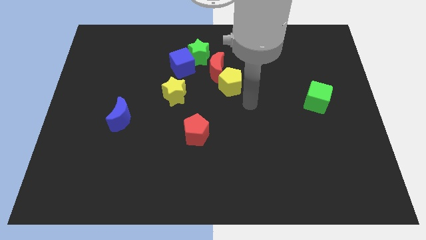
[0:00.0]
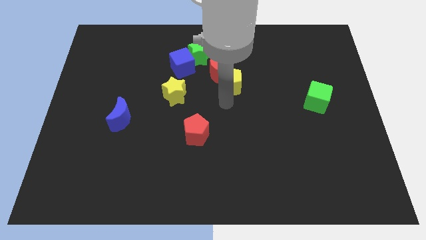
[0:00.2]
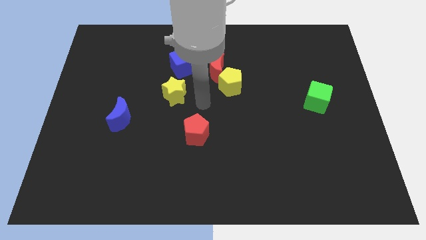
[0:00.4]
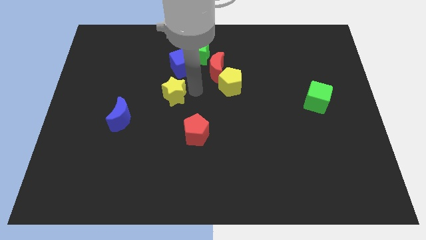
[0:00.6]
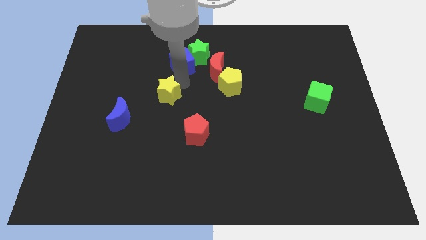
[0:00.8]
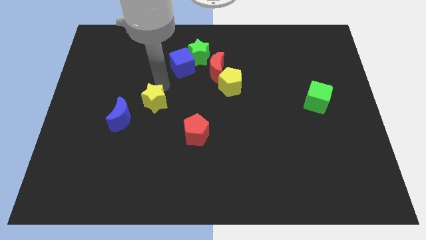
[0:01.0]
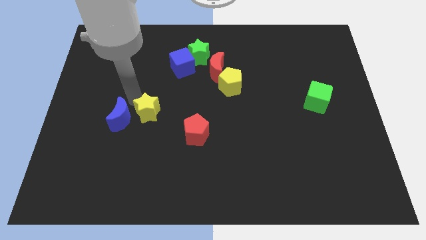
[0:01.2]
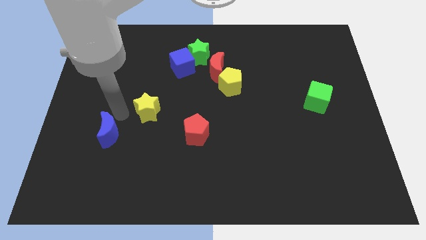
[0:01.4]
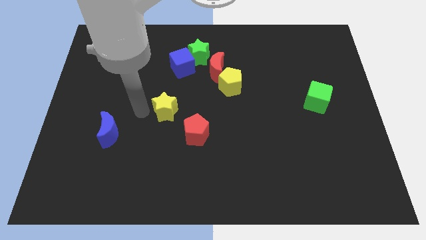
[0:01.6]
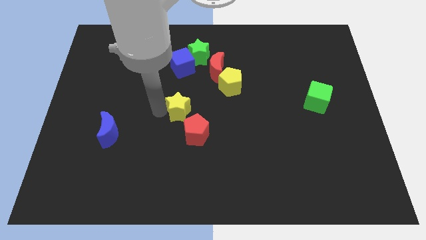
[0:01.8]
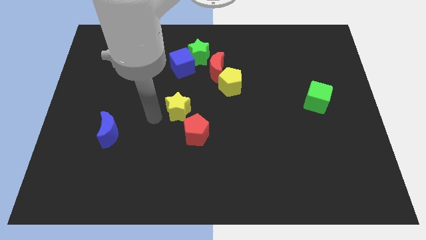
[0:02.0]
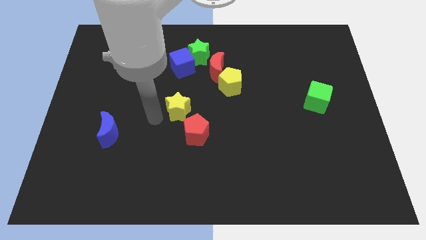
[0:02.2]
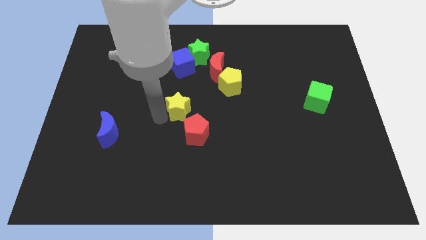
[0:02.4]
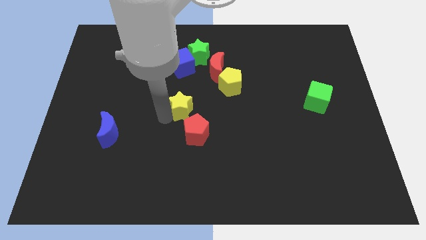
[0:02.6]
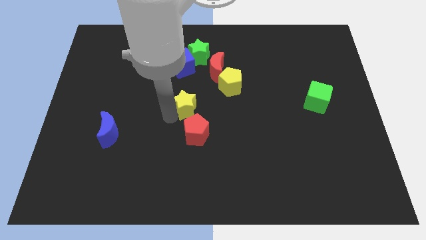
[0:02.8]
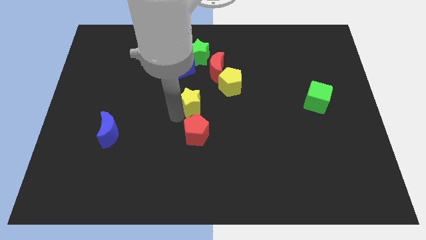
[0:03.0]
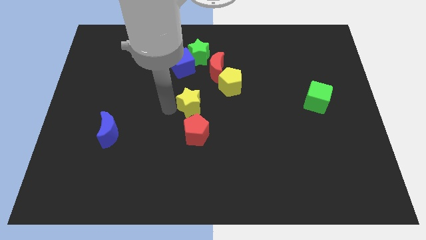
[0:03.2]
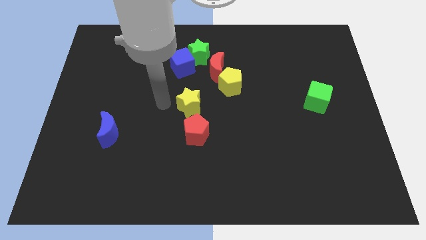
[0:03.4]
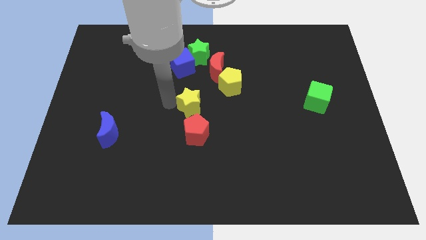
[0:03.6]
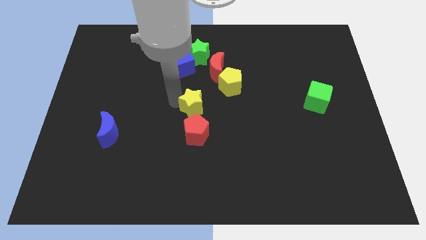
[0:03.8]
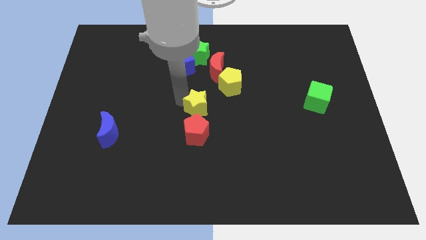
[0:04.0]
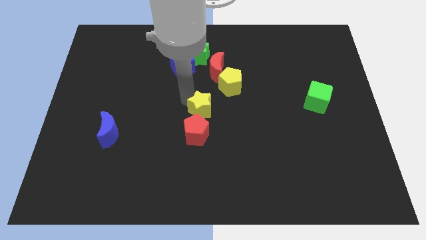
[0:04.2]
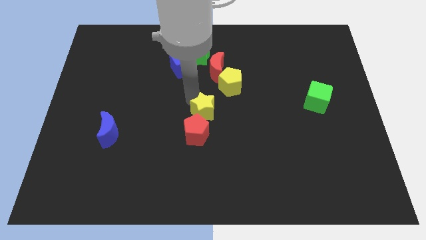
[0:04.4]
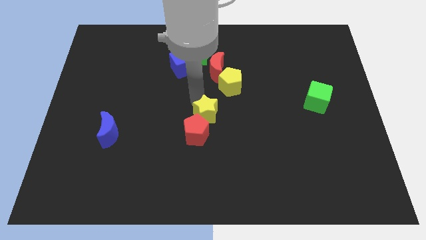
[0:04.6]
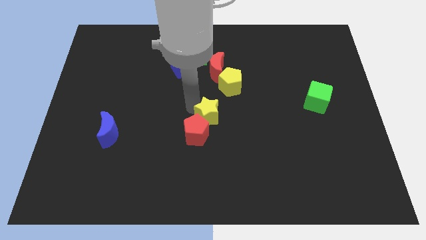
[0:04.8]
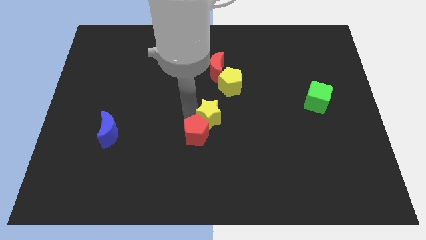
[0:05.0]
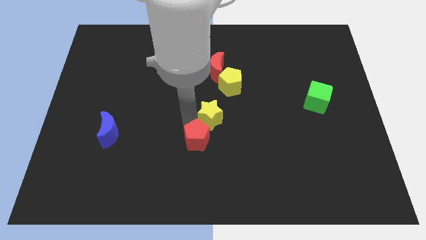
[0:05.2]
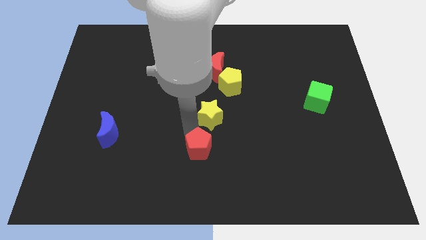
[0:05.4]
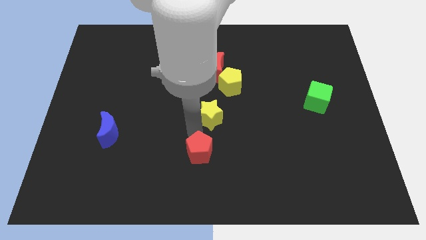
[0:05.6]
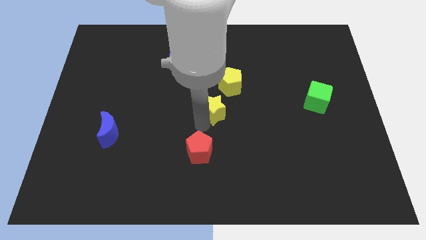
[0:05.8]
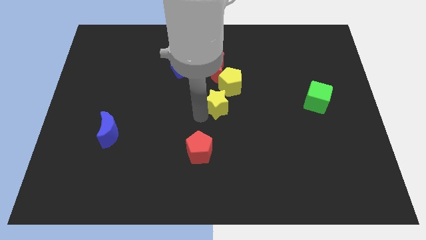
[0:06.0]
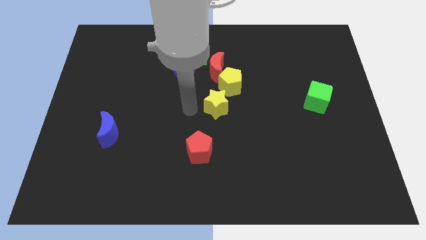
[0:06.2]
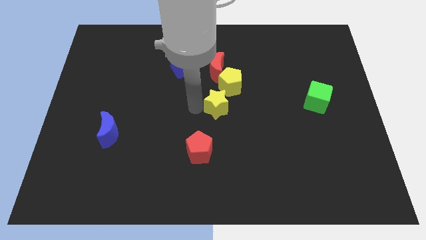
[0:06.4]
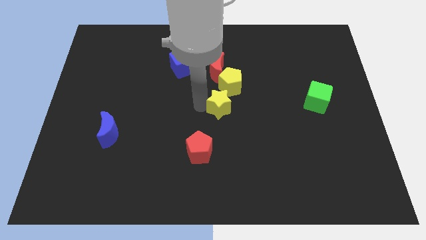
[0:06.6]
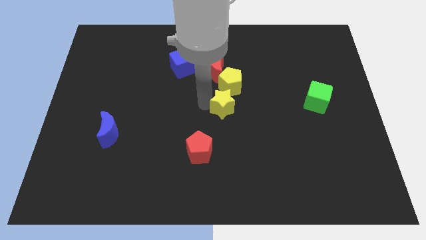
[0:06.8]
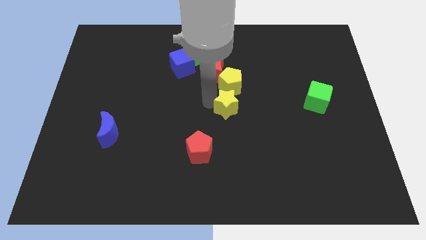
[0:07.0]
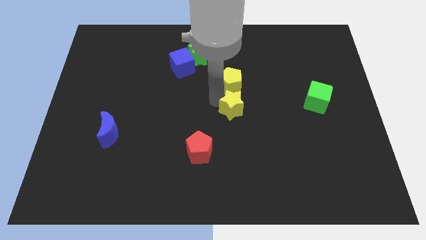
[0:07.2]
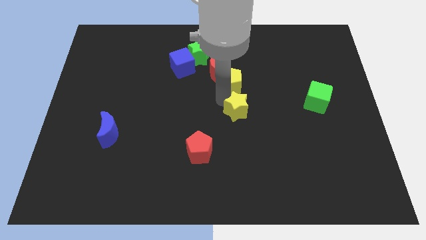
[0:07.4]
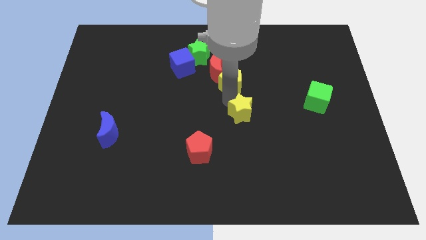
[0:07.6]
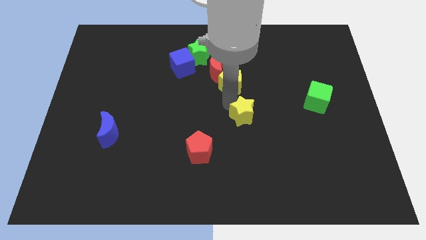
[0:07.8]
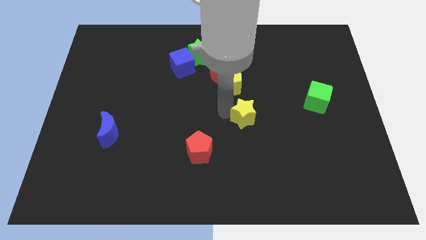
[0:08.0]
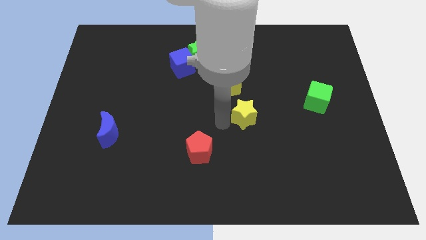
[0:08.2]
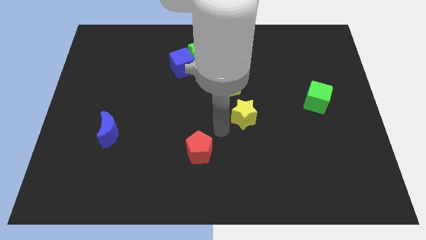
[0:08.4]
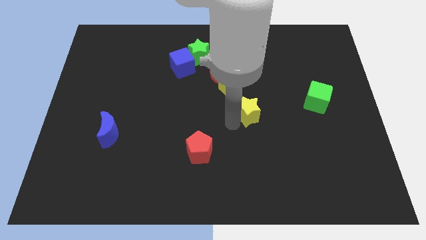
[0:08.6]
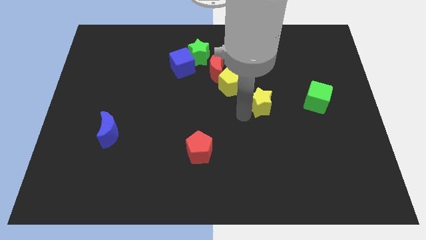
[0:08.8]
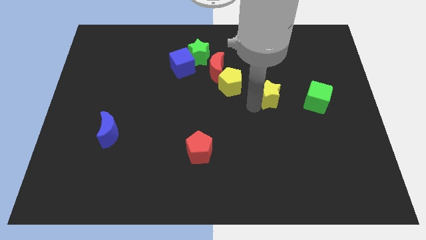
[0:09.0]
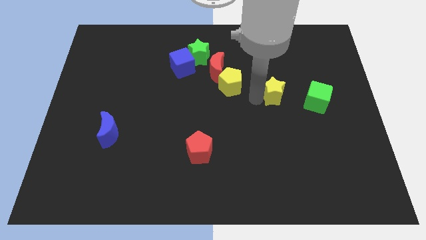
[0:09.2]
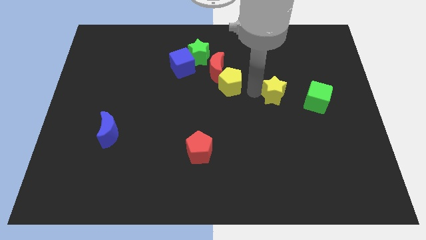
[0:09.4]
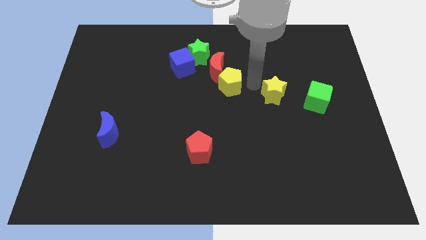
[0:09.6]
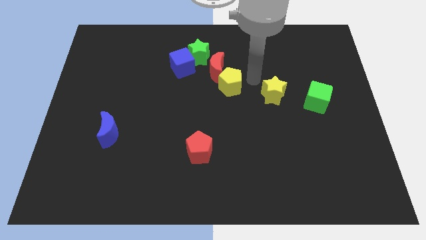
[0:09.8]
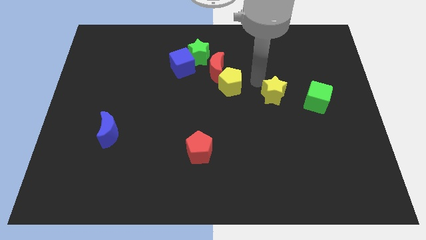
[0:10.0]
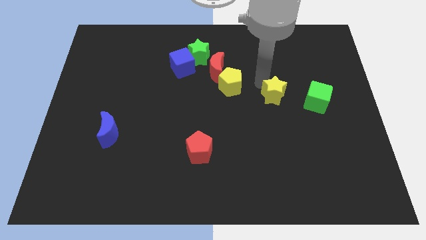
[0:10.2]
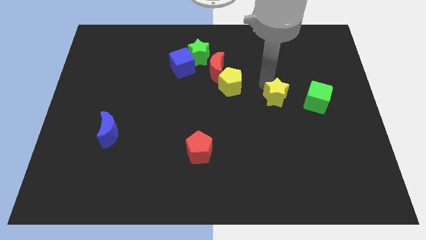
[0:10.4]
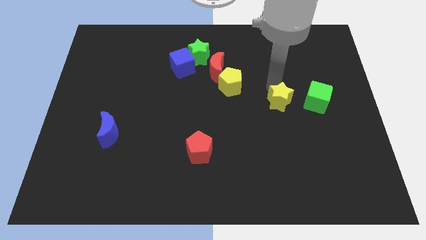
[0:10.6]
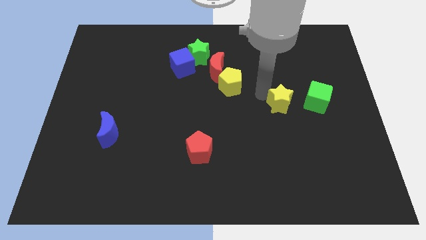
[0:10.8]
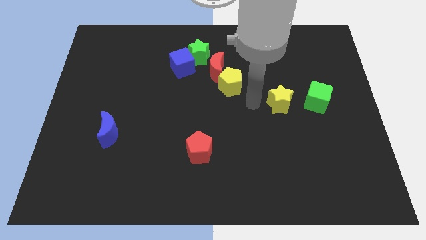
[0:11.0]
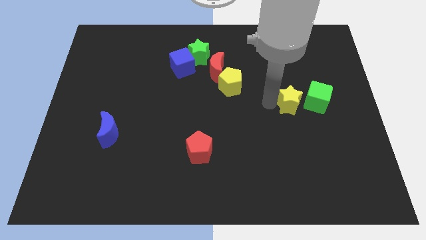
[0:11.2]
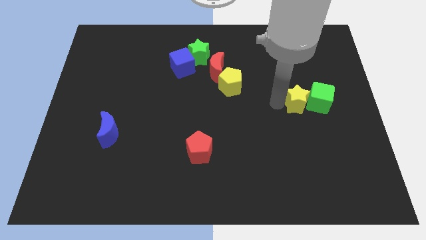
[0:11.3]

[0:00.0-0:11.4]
move the yellow star towards the green cube

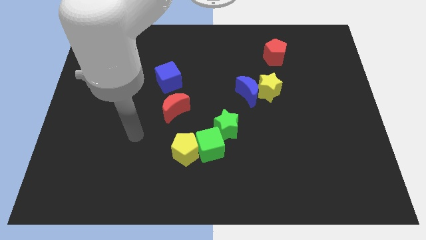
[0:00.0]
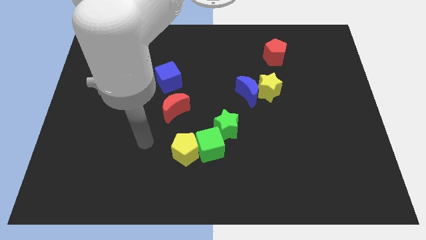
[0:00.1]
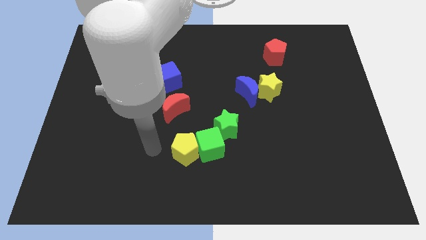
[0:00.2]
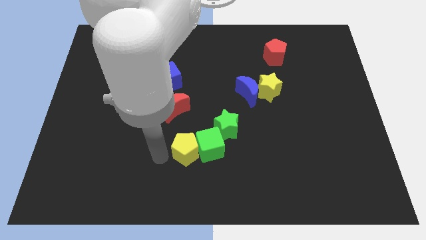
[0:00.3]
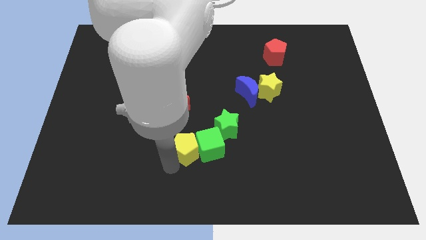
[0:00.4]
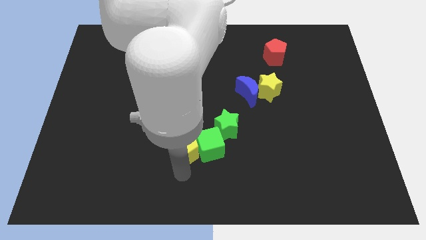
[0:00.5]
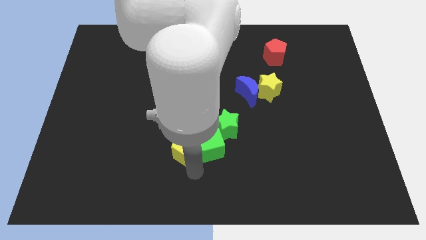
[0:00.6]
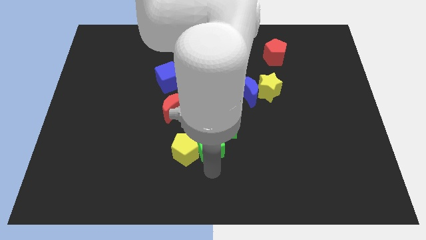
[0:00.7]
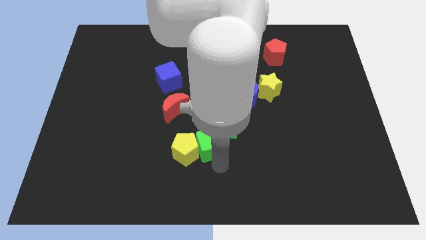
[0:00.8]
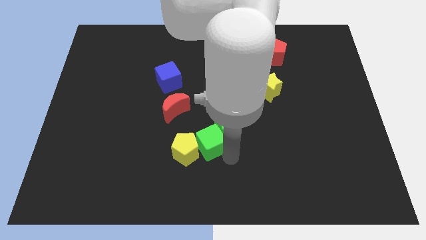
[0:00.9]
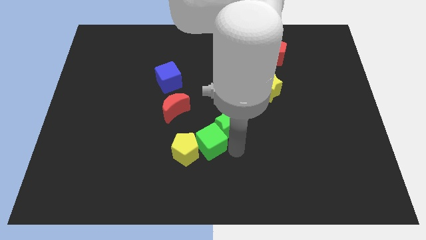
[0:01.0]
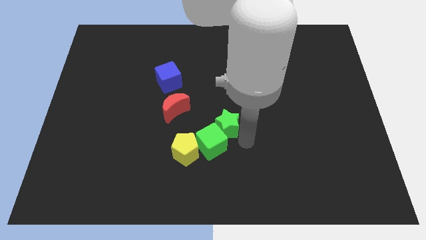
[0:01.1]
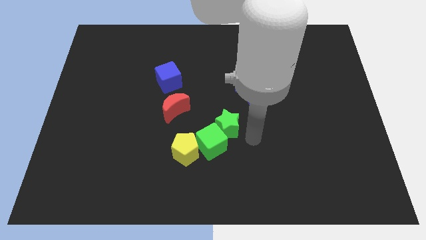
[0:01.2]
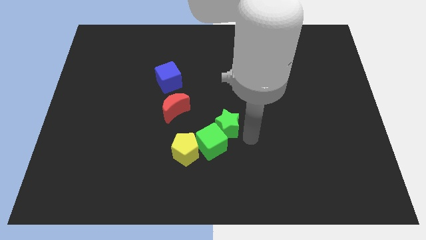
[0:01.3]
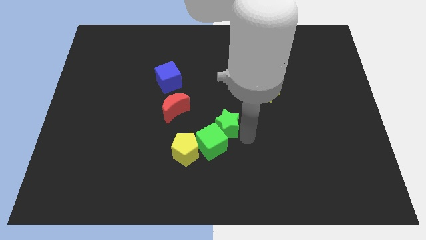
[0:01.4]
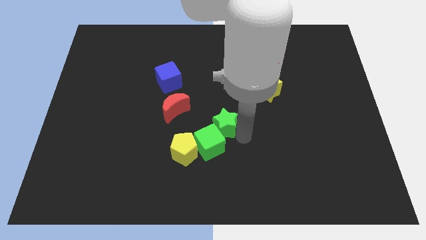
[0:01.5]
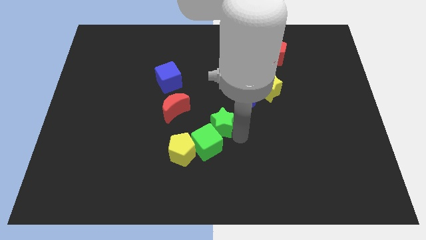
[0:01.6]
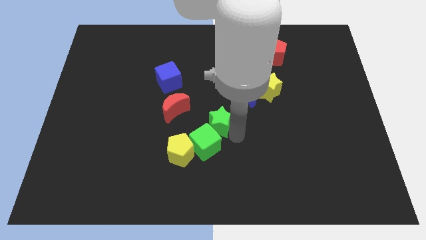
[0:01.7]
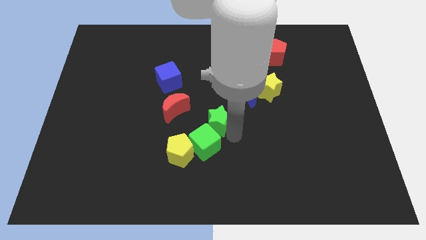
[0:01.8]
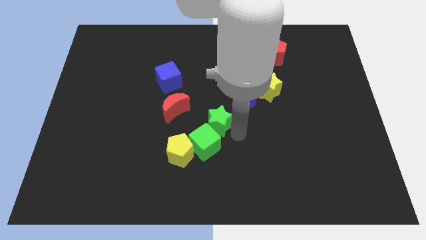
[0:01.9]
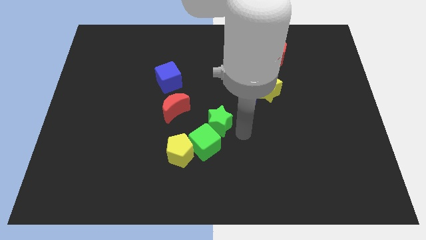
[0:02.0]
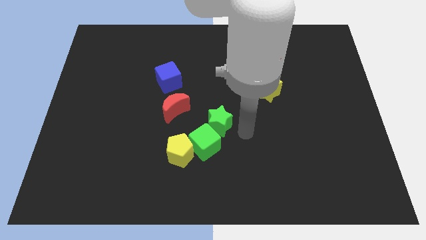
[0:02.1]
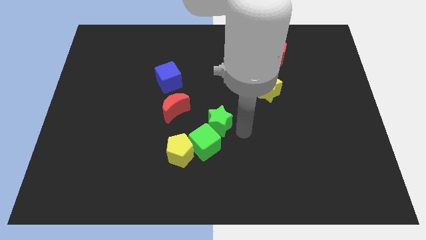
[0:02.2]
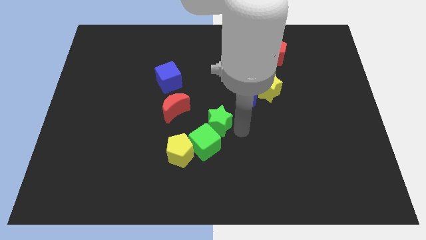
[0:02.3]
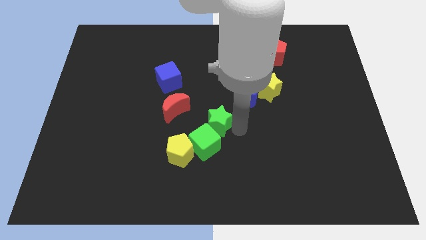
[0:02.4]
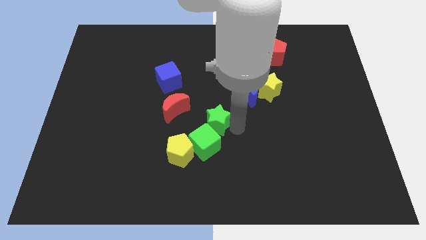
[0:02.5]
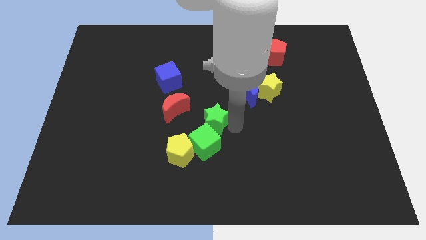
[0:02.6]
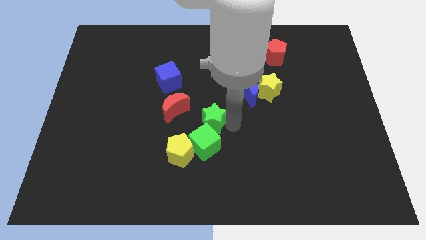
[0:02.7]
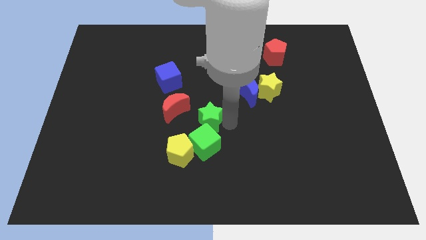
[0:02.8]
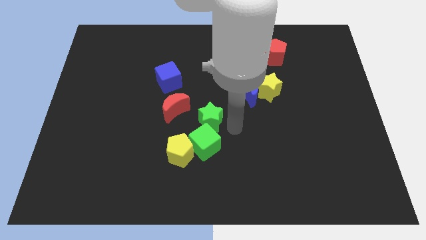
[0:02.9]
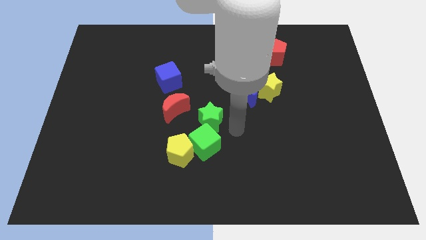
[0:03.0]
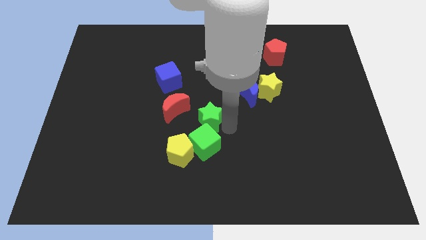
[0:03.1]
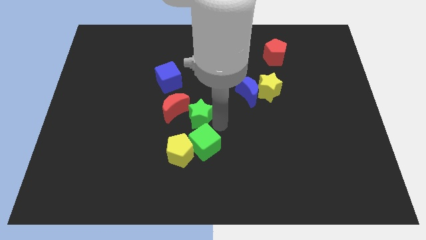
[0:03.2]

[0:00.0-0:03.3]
move the green star next to the red moon
